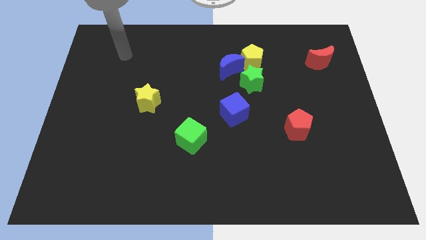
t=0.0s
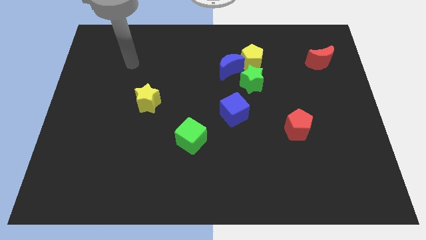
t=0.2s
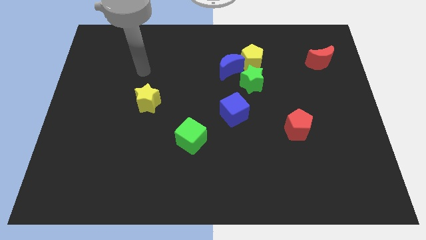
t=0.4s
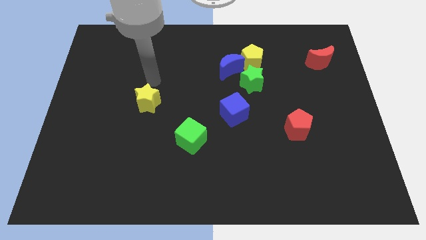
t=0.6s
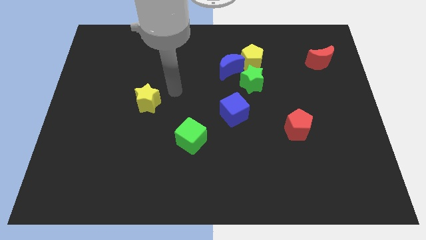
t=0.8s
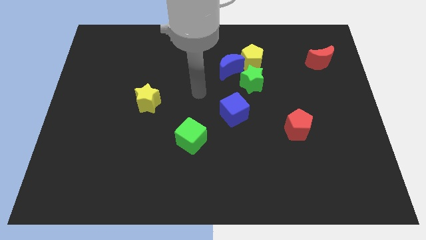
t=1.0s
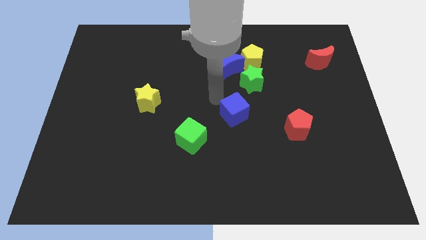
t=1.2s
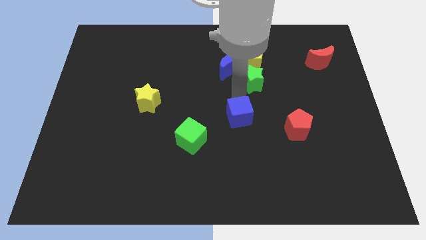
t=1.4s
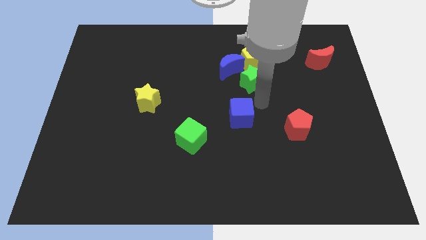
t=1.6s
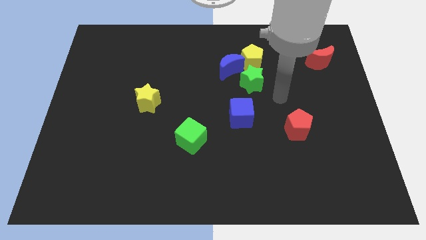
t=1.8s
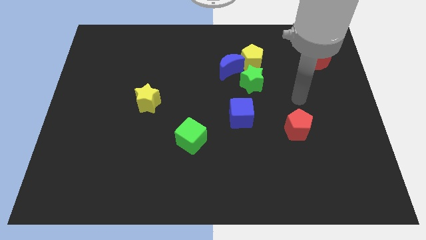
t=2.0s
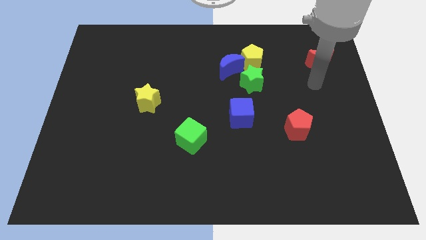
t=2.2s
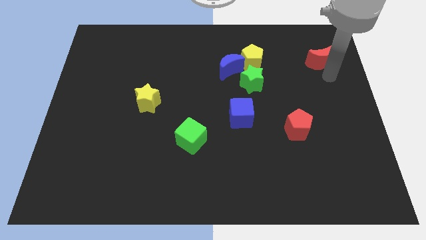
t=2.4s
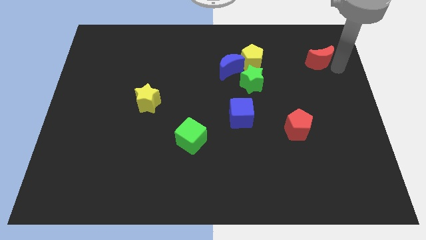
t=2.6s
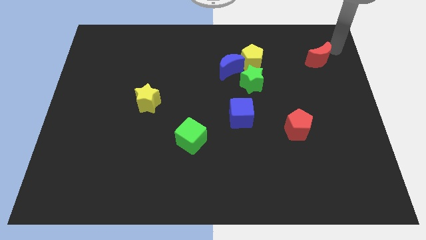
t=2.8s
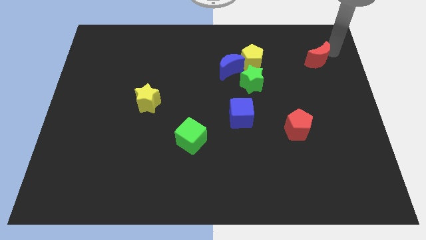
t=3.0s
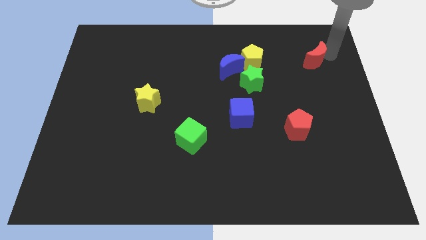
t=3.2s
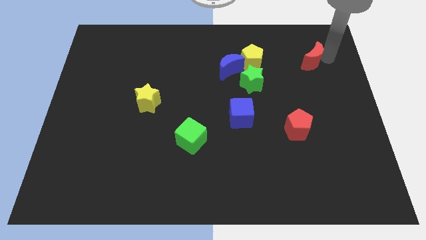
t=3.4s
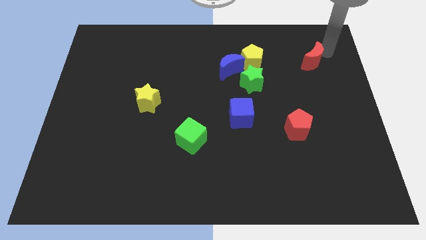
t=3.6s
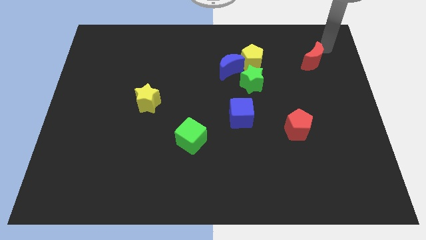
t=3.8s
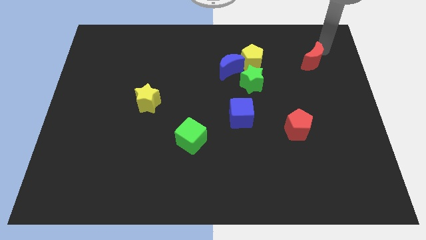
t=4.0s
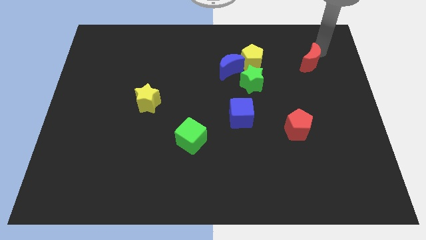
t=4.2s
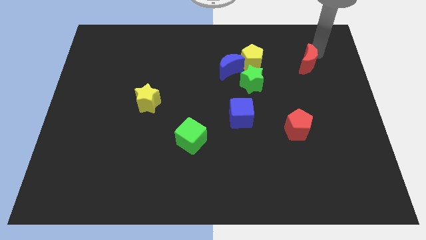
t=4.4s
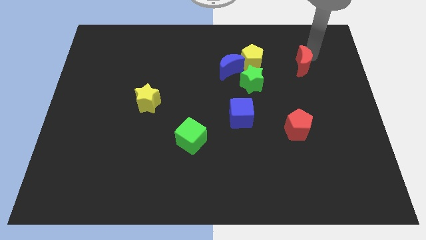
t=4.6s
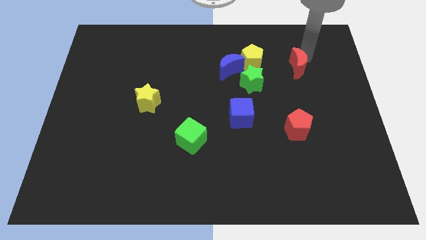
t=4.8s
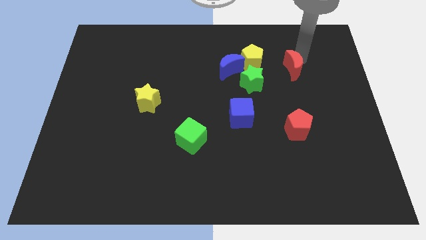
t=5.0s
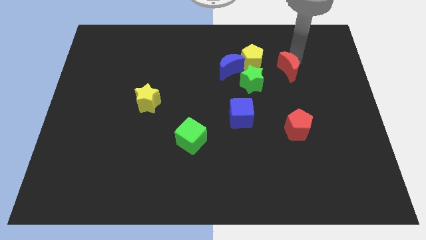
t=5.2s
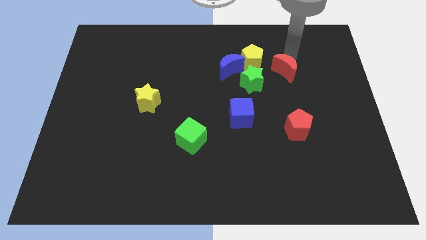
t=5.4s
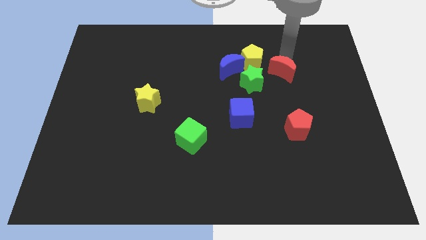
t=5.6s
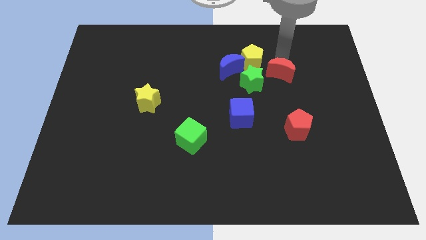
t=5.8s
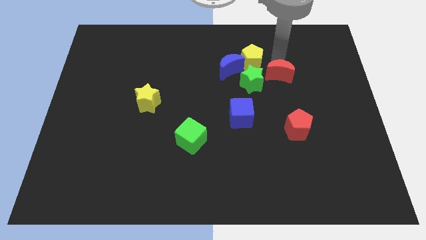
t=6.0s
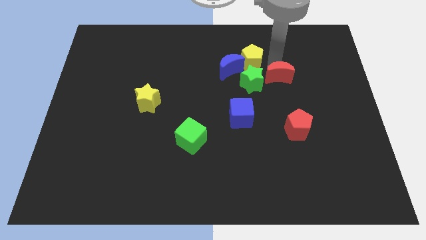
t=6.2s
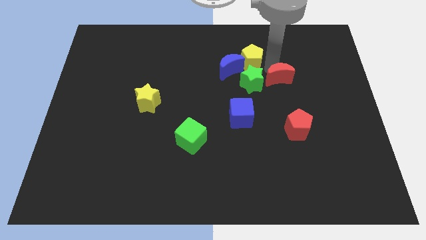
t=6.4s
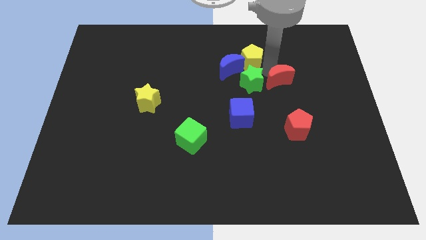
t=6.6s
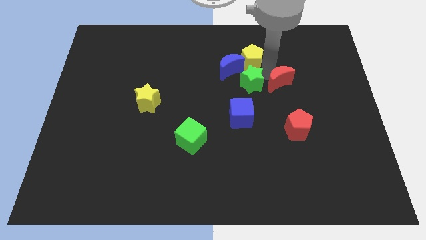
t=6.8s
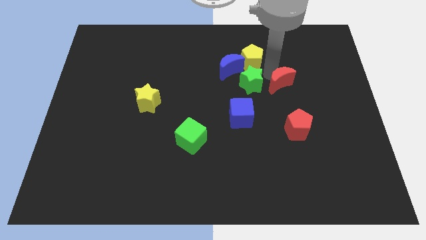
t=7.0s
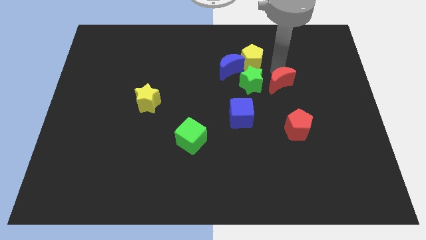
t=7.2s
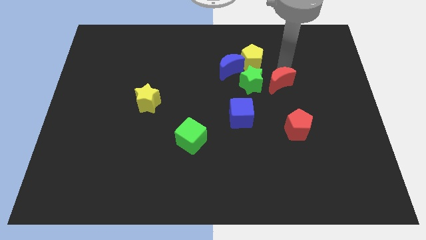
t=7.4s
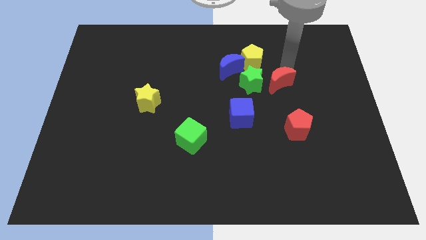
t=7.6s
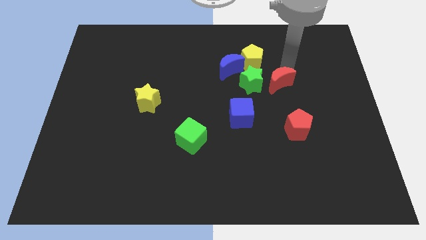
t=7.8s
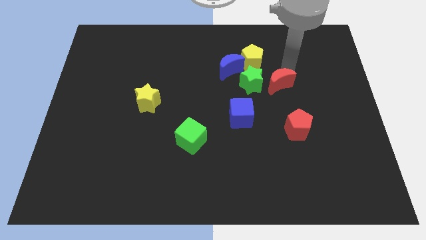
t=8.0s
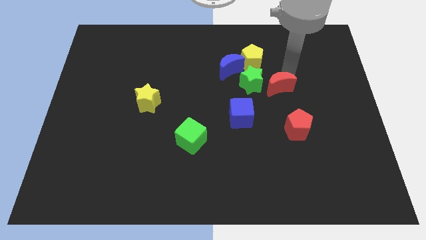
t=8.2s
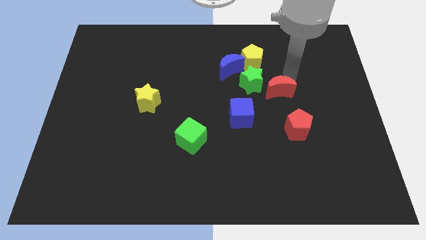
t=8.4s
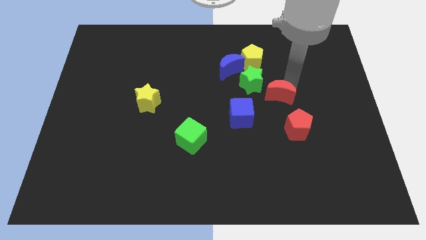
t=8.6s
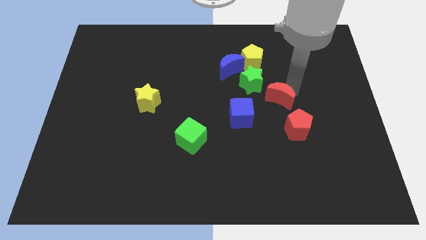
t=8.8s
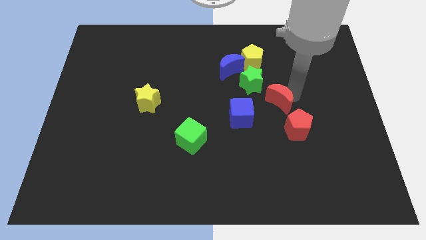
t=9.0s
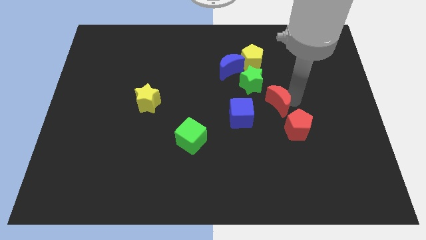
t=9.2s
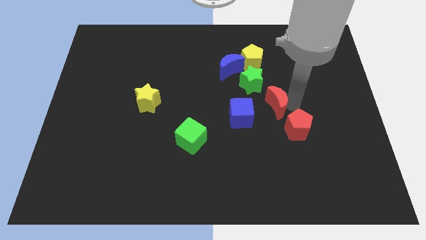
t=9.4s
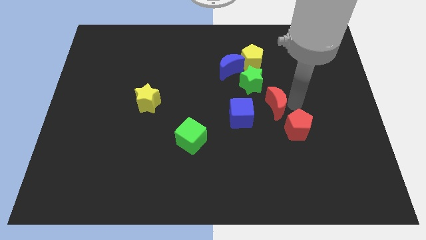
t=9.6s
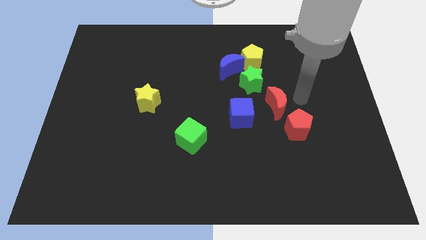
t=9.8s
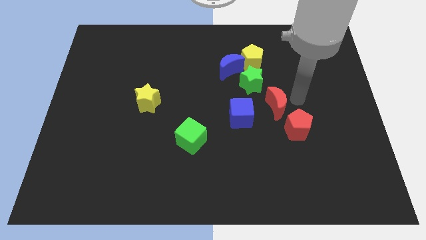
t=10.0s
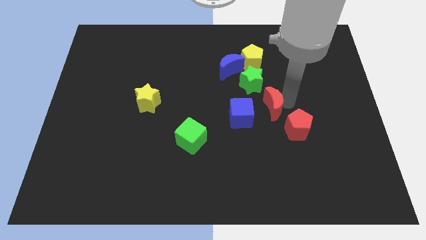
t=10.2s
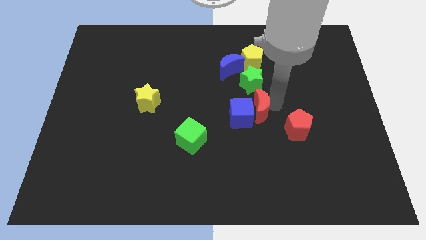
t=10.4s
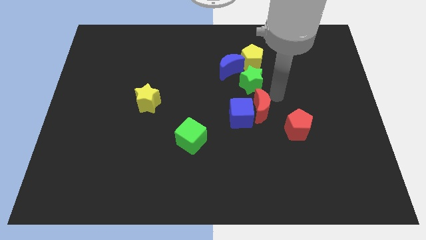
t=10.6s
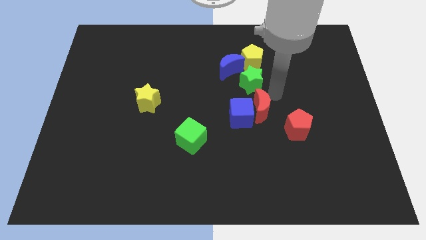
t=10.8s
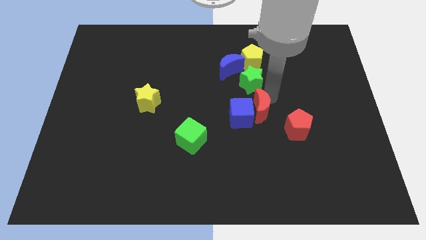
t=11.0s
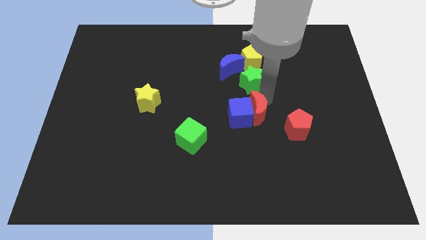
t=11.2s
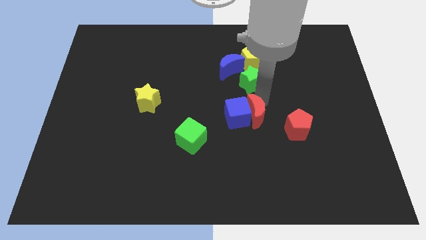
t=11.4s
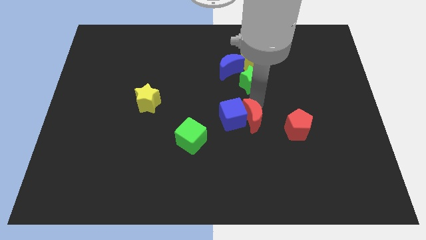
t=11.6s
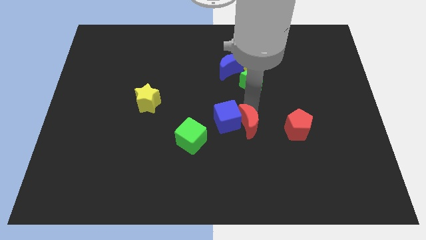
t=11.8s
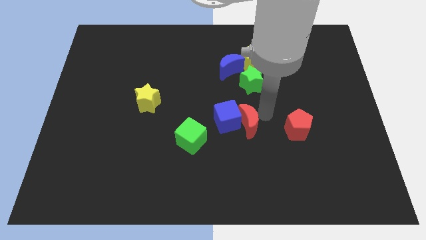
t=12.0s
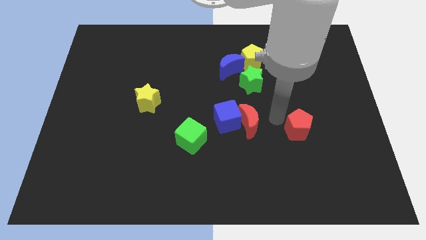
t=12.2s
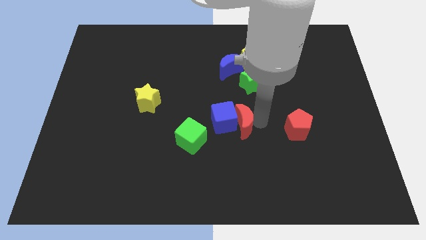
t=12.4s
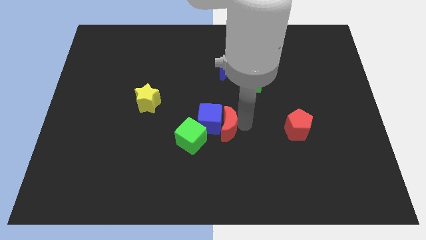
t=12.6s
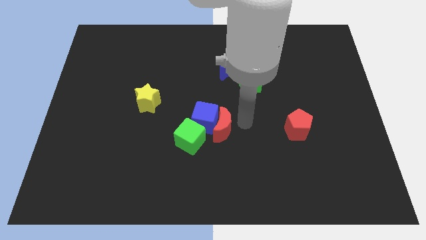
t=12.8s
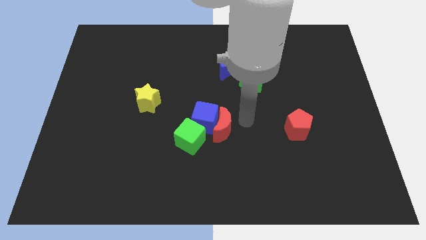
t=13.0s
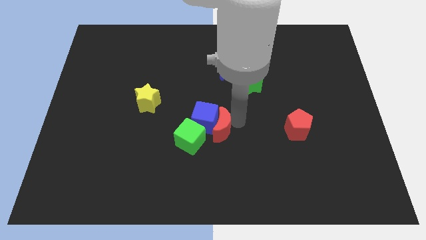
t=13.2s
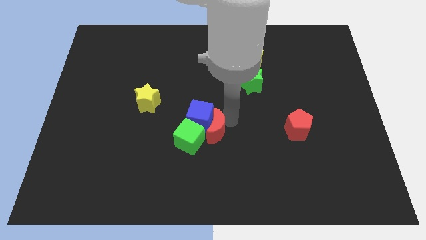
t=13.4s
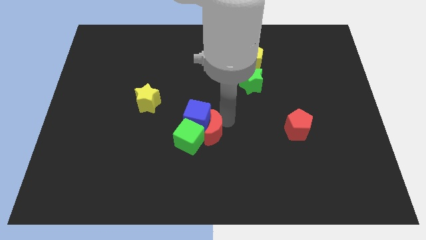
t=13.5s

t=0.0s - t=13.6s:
move the red moon close to the green cube
